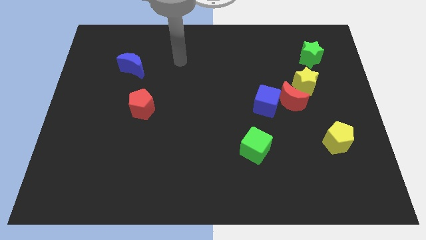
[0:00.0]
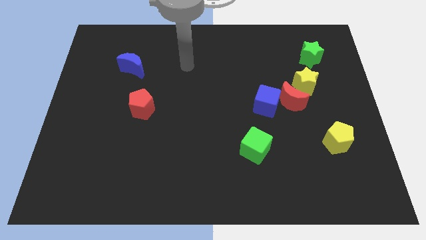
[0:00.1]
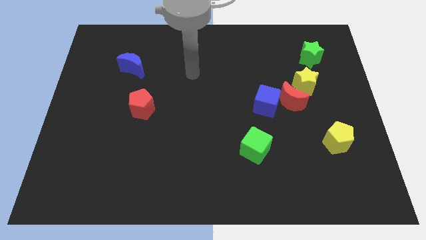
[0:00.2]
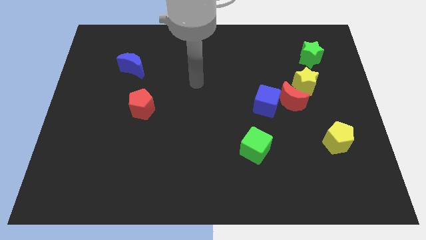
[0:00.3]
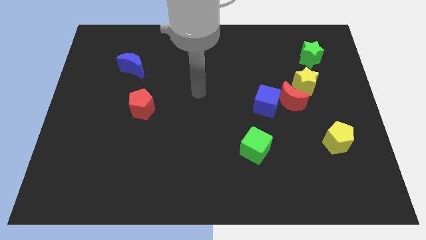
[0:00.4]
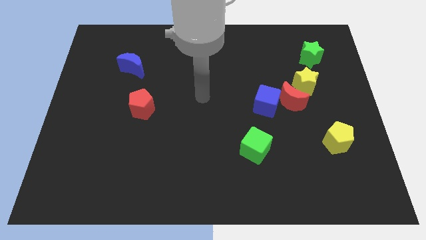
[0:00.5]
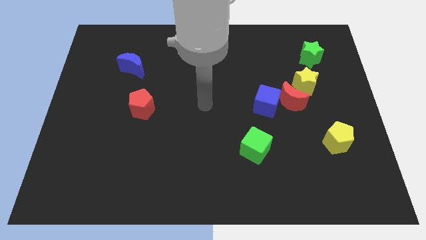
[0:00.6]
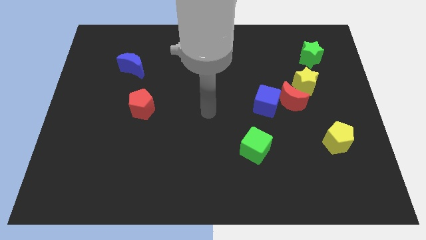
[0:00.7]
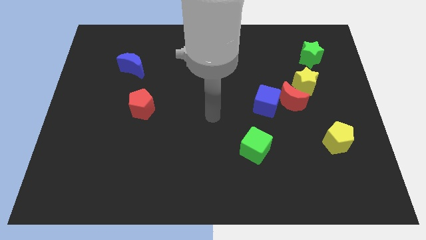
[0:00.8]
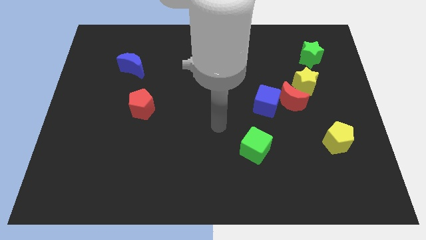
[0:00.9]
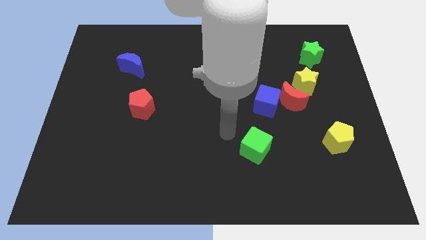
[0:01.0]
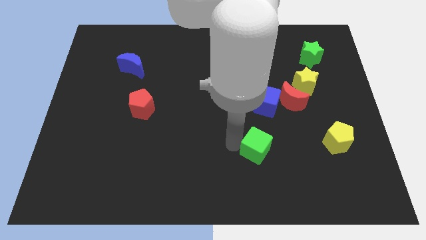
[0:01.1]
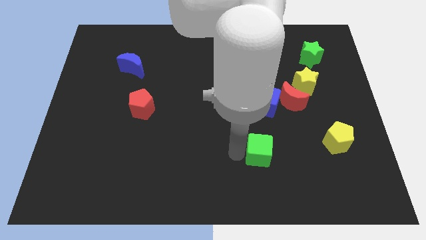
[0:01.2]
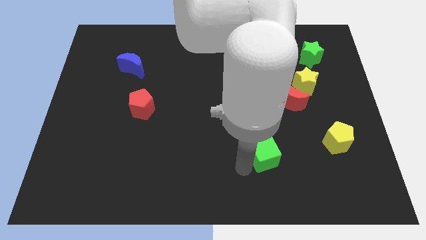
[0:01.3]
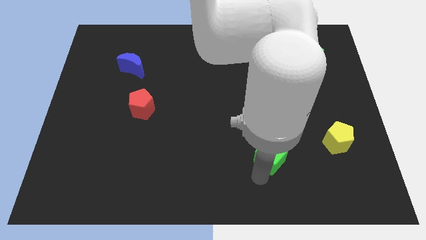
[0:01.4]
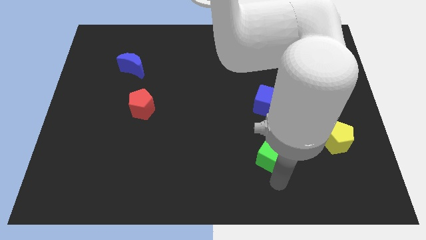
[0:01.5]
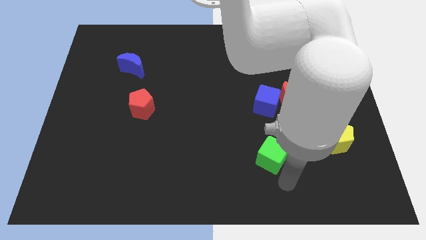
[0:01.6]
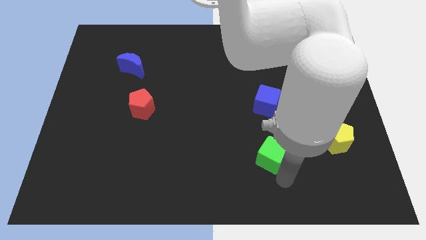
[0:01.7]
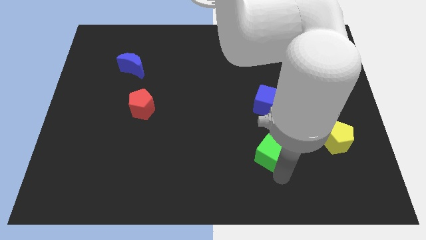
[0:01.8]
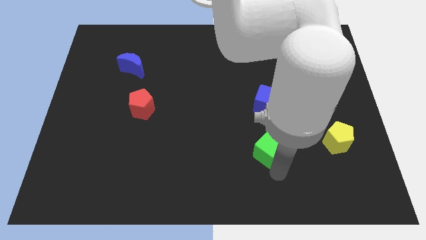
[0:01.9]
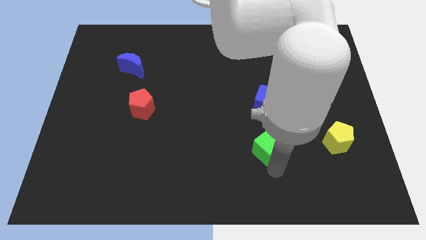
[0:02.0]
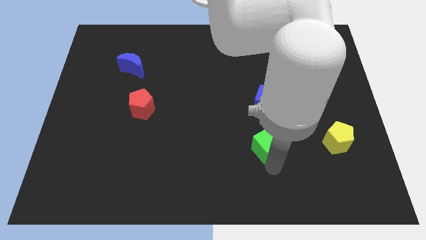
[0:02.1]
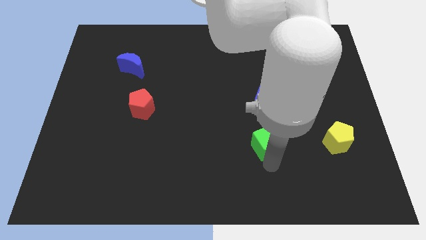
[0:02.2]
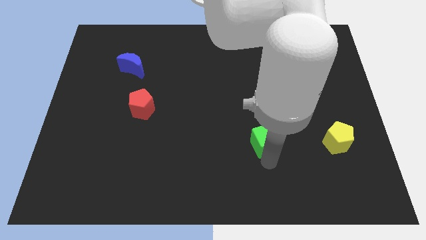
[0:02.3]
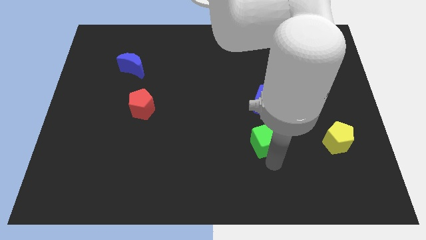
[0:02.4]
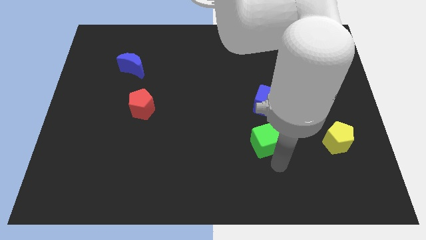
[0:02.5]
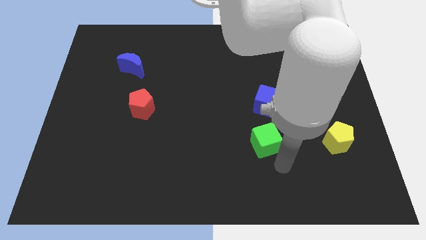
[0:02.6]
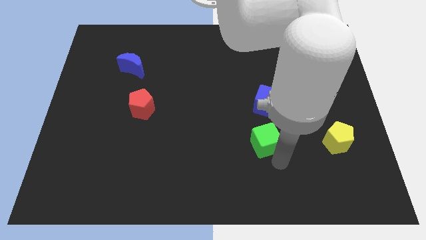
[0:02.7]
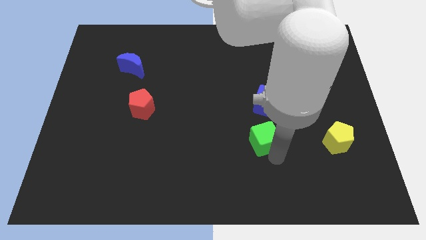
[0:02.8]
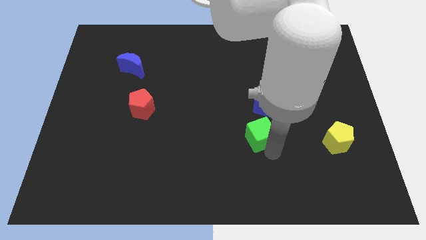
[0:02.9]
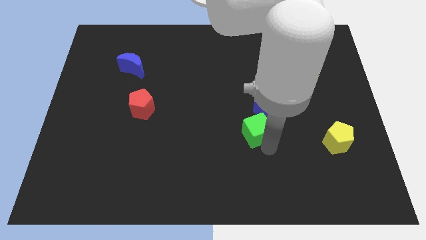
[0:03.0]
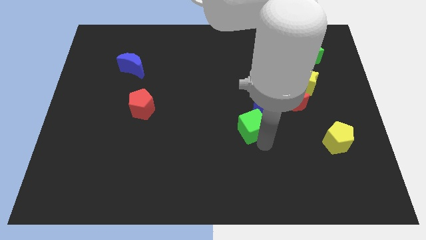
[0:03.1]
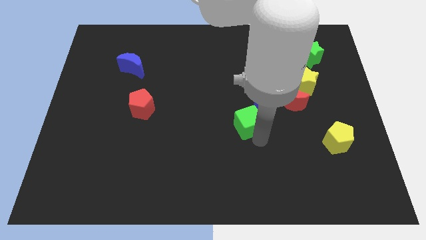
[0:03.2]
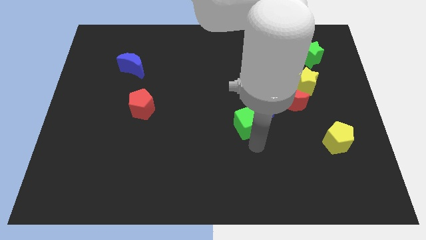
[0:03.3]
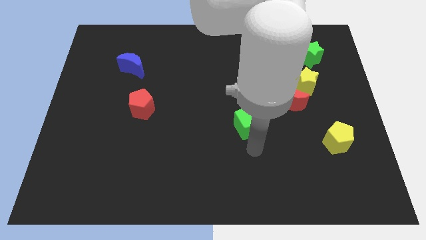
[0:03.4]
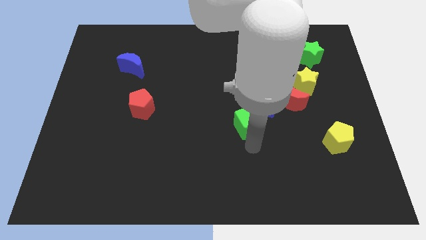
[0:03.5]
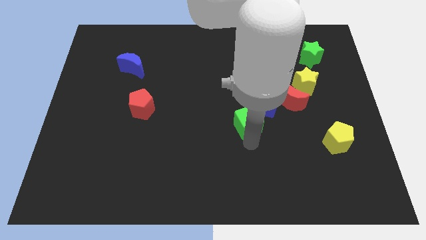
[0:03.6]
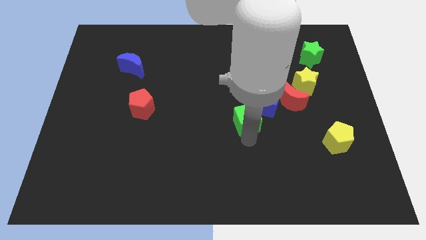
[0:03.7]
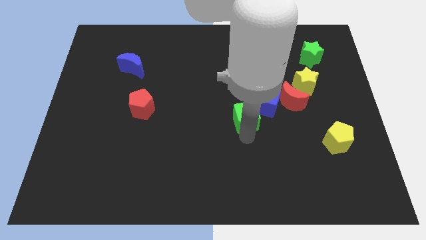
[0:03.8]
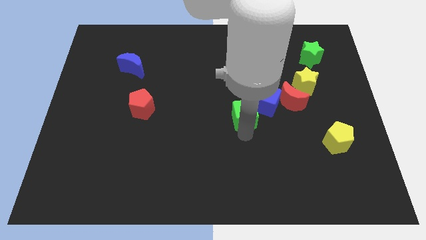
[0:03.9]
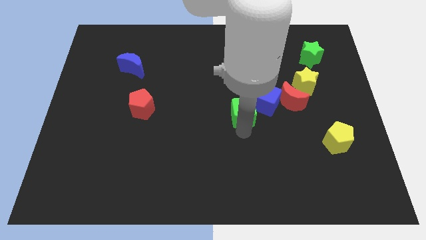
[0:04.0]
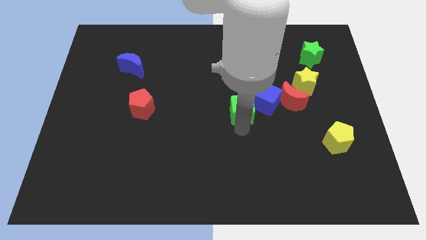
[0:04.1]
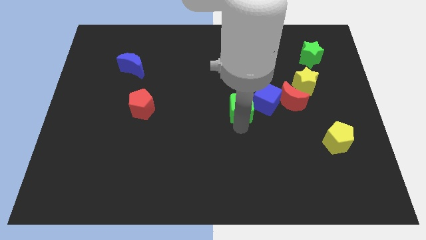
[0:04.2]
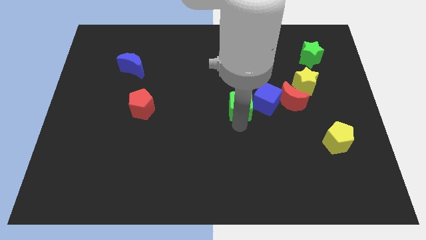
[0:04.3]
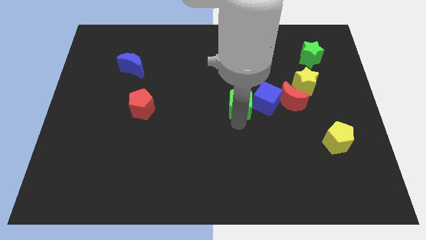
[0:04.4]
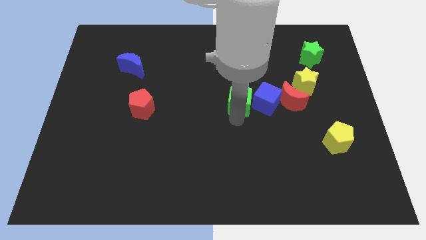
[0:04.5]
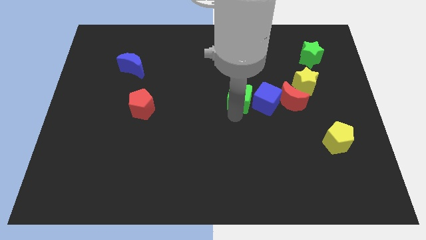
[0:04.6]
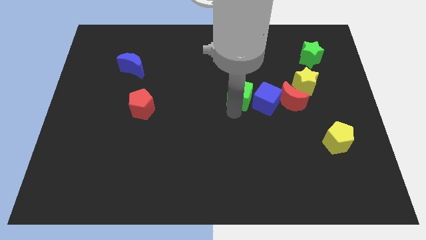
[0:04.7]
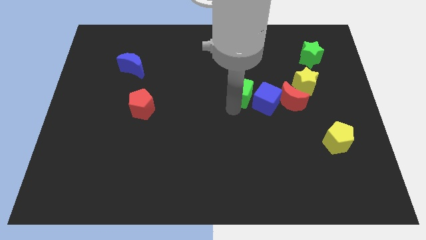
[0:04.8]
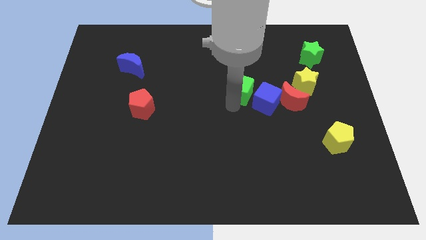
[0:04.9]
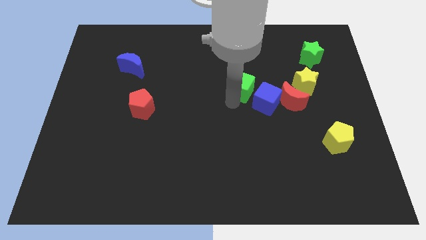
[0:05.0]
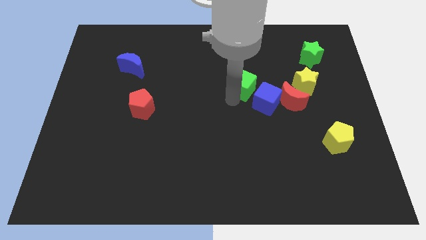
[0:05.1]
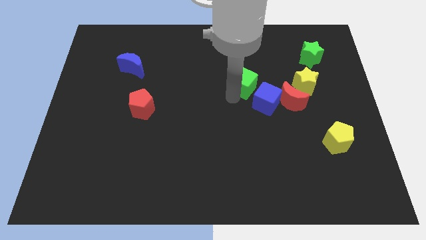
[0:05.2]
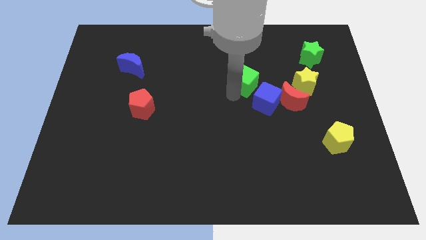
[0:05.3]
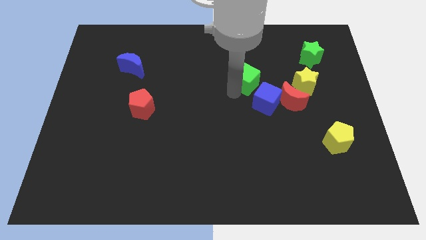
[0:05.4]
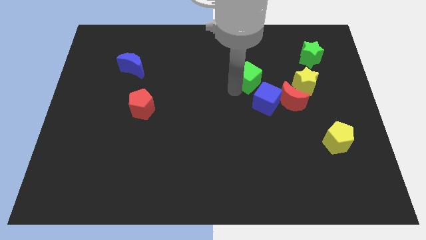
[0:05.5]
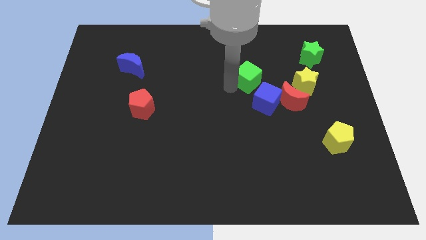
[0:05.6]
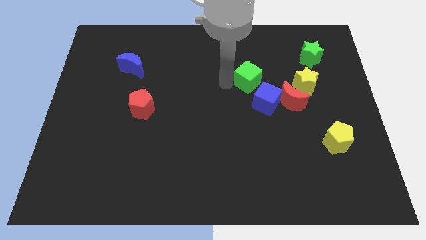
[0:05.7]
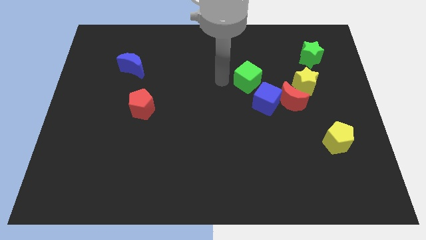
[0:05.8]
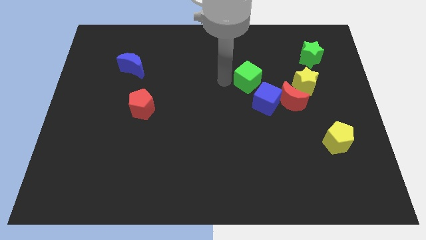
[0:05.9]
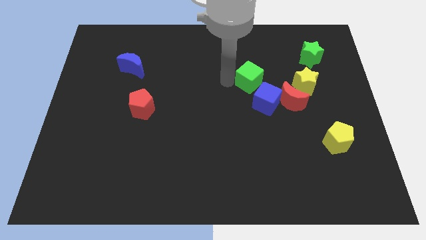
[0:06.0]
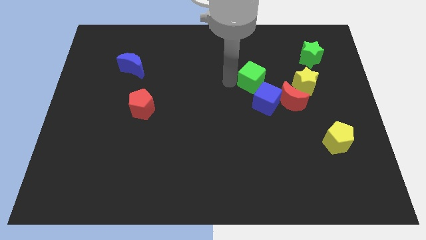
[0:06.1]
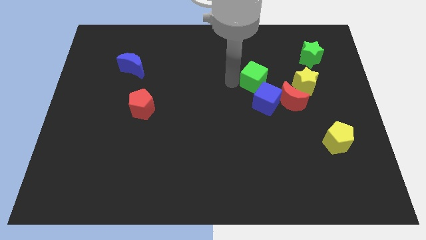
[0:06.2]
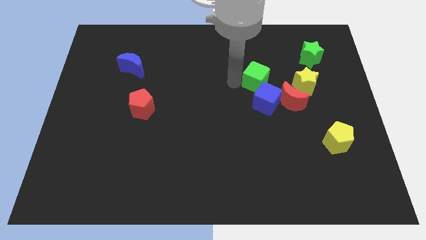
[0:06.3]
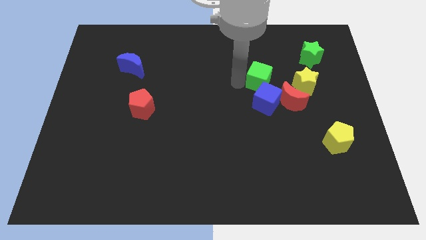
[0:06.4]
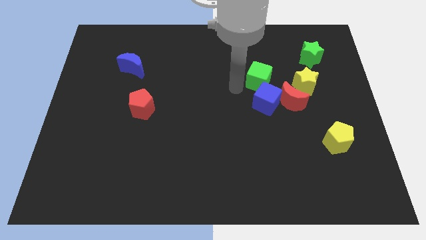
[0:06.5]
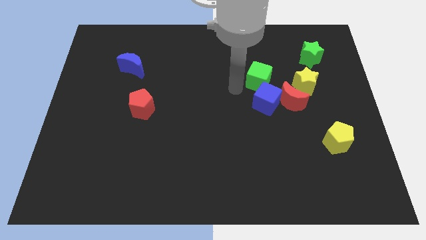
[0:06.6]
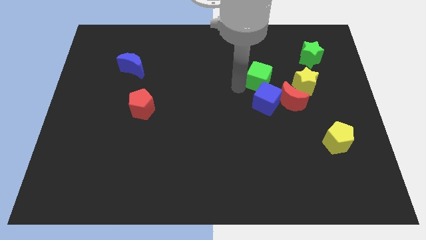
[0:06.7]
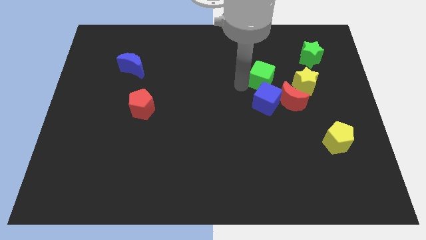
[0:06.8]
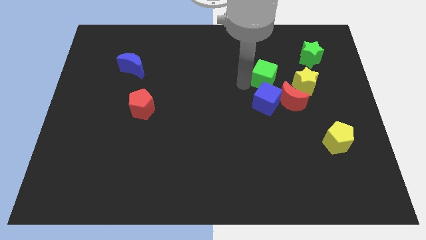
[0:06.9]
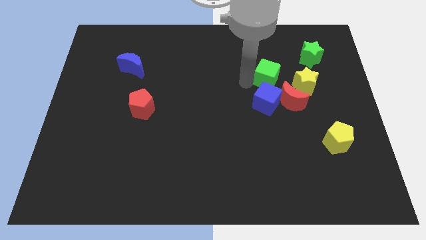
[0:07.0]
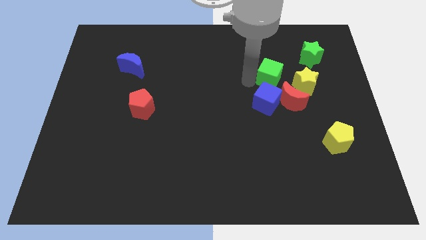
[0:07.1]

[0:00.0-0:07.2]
move the green cube to the top of the red moon
